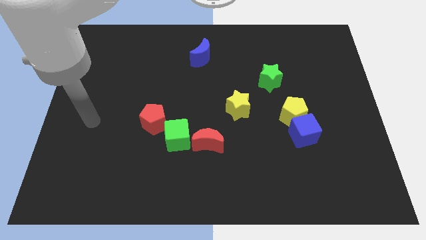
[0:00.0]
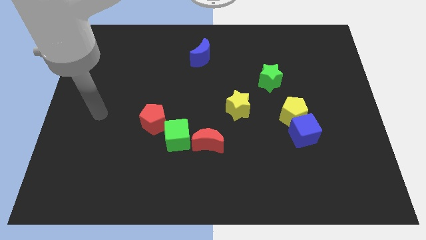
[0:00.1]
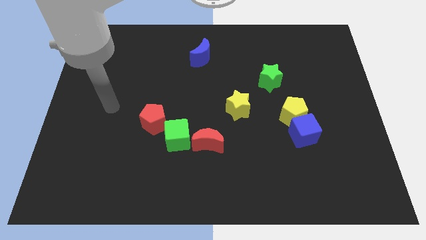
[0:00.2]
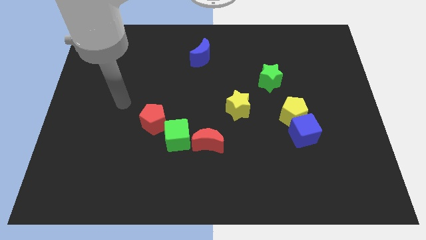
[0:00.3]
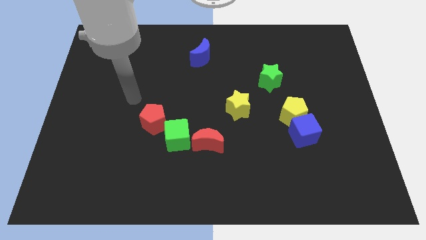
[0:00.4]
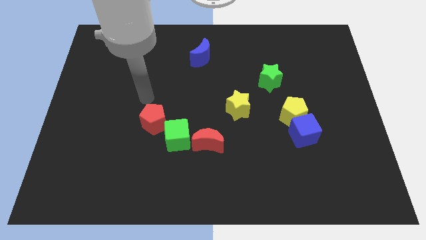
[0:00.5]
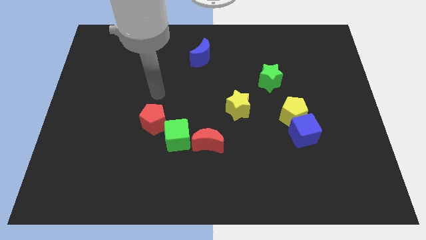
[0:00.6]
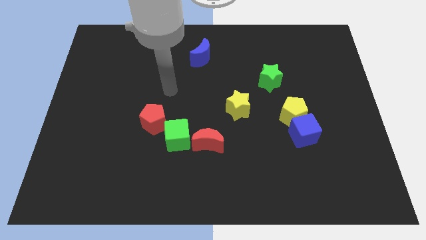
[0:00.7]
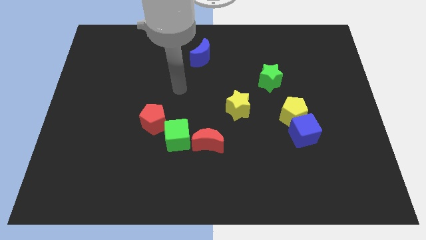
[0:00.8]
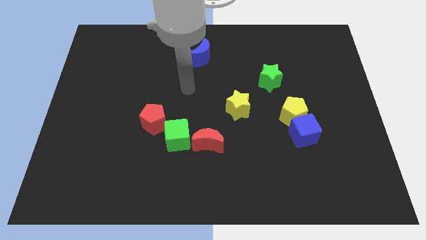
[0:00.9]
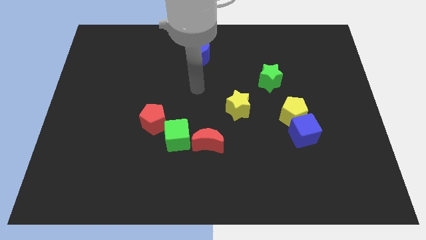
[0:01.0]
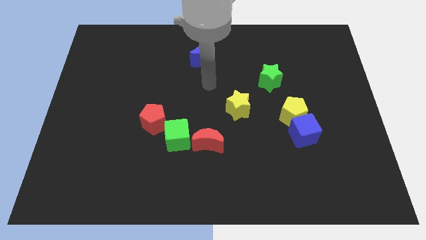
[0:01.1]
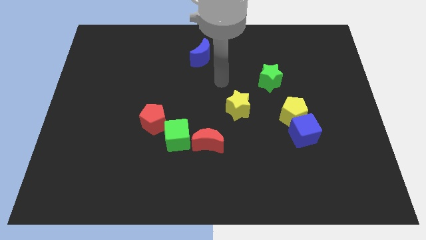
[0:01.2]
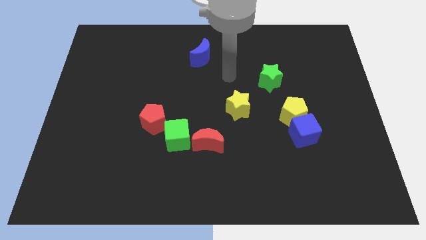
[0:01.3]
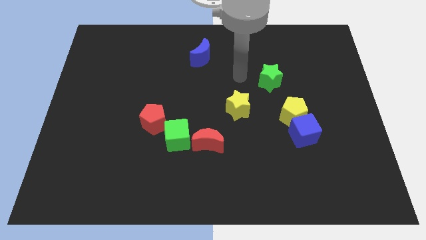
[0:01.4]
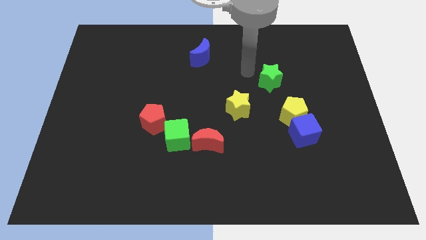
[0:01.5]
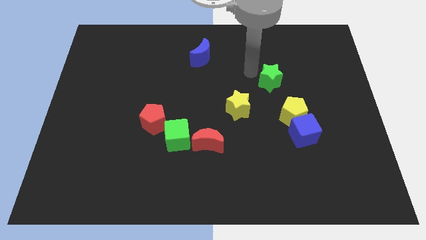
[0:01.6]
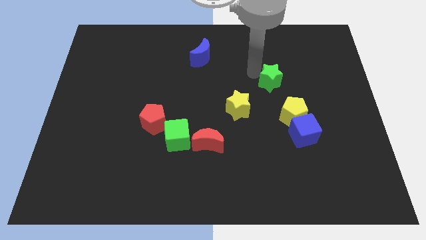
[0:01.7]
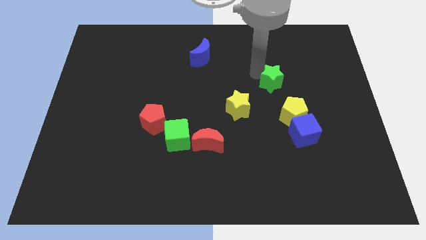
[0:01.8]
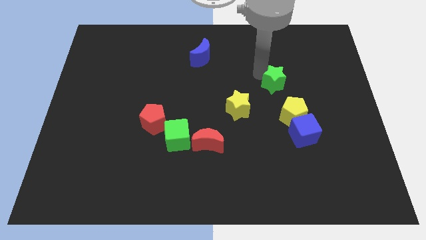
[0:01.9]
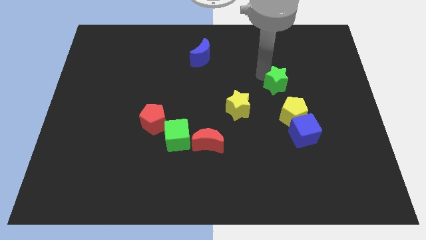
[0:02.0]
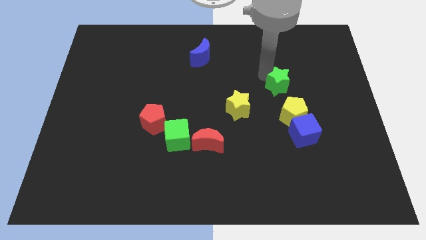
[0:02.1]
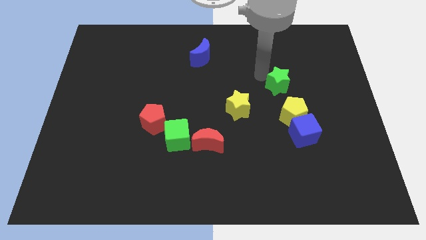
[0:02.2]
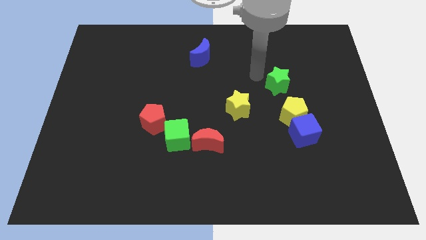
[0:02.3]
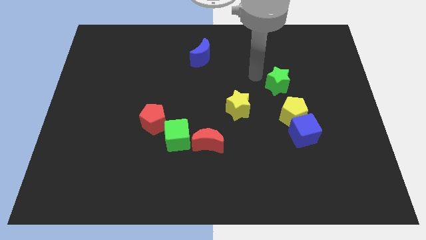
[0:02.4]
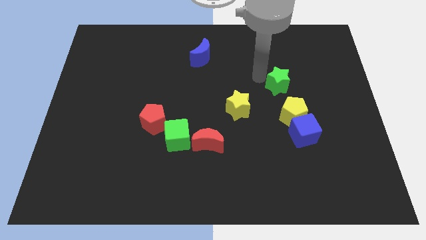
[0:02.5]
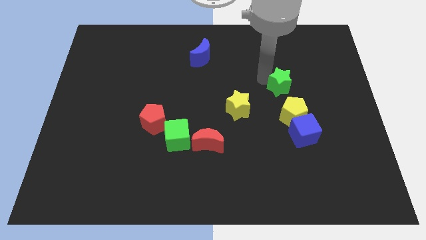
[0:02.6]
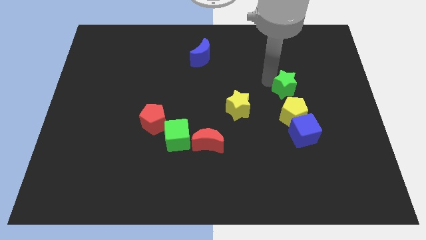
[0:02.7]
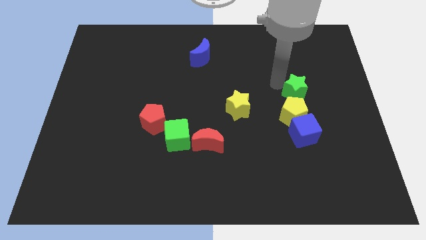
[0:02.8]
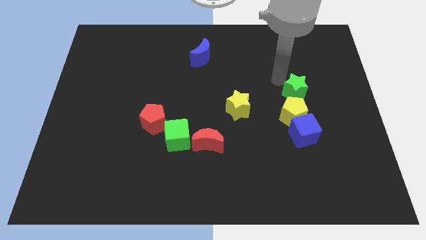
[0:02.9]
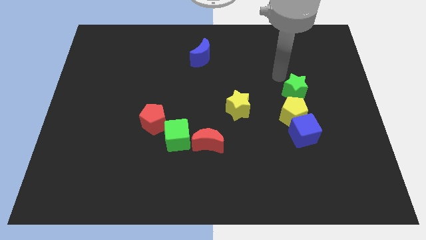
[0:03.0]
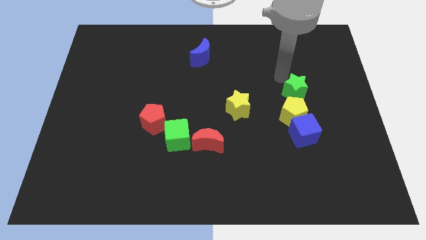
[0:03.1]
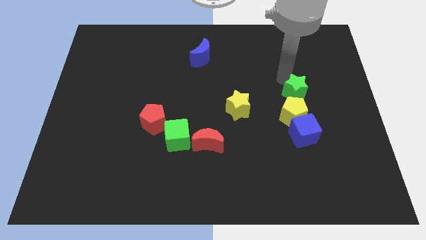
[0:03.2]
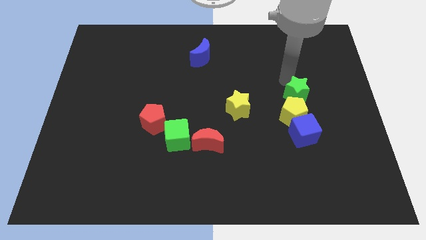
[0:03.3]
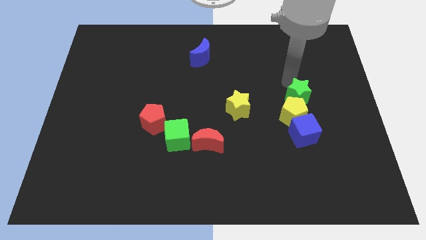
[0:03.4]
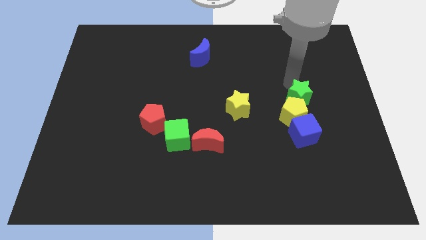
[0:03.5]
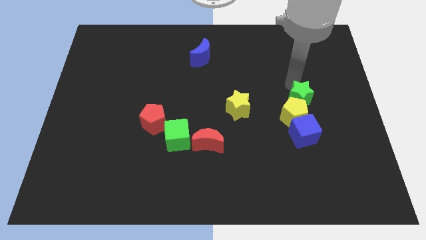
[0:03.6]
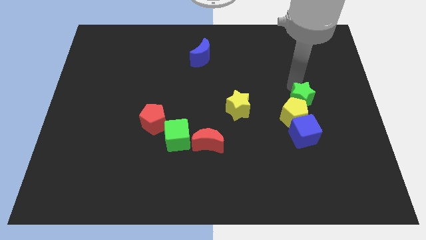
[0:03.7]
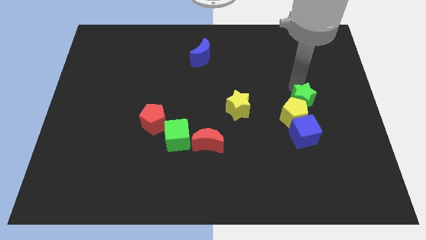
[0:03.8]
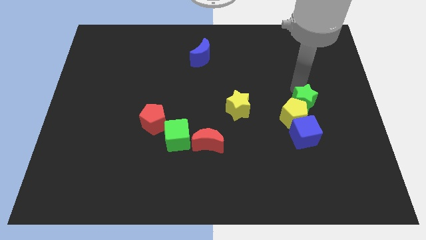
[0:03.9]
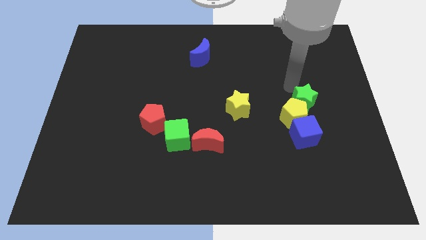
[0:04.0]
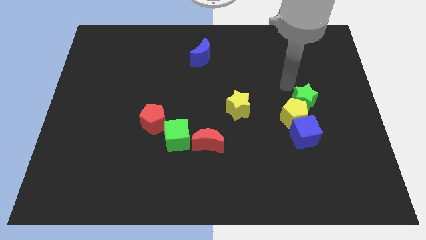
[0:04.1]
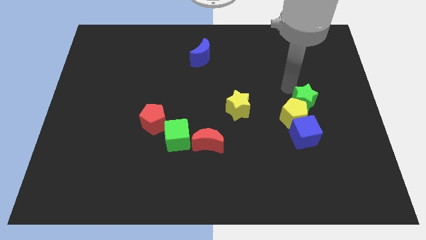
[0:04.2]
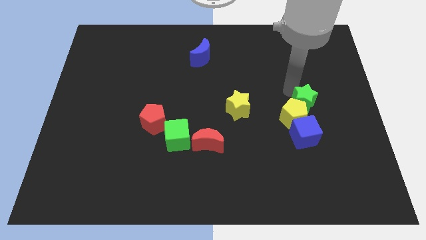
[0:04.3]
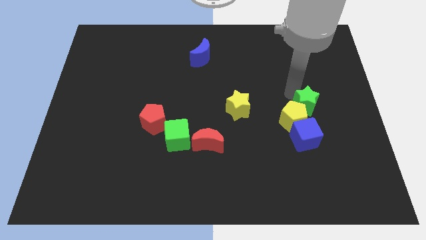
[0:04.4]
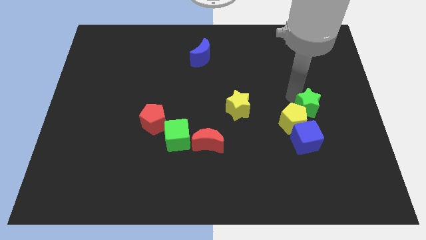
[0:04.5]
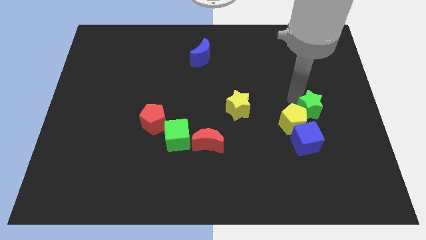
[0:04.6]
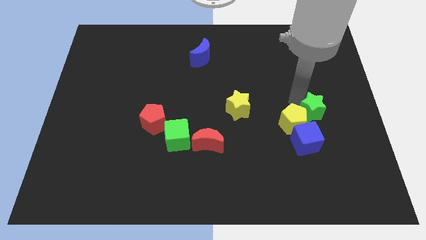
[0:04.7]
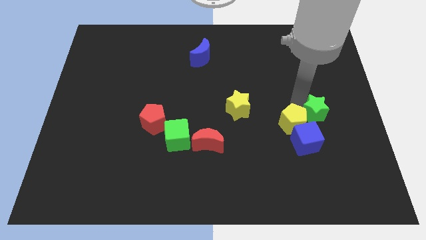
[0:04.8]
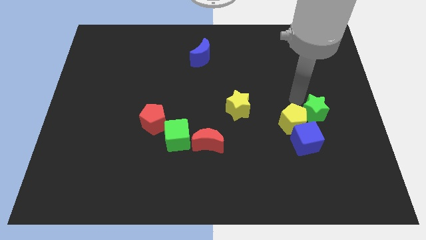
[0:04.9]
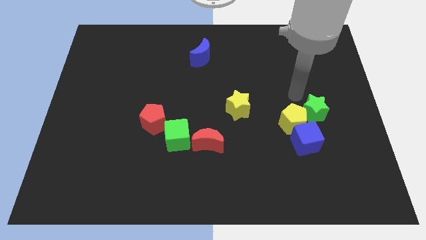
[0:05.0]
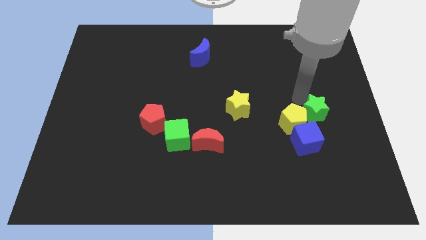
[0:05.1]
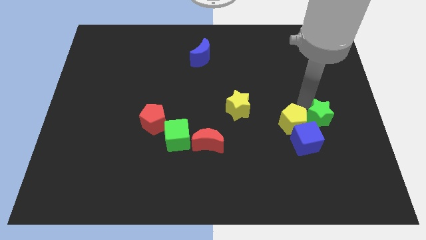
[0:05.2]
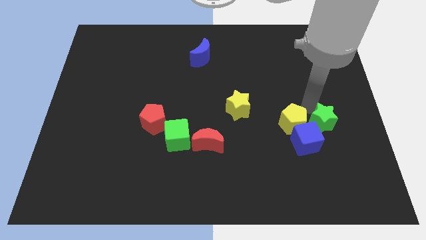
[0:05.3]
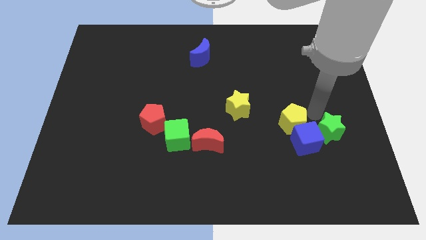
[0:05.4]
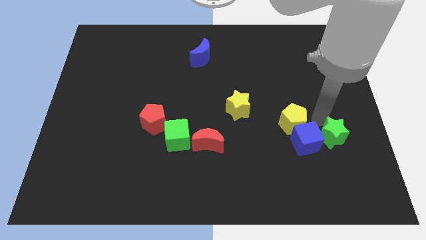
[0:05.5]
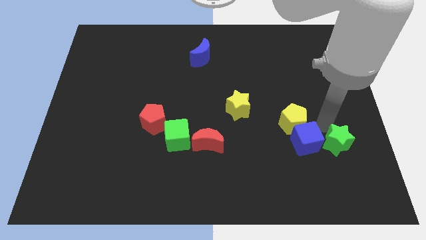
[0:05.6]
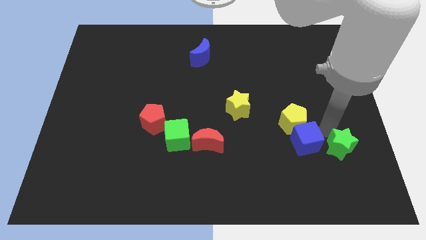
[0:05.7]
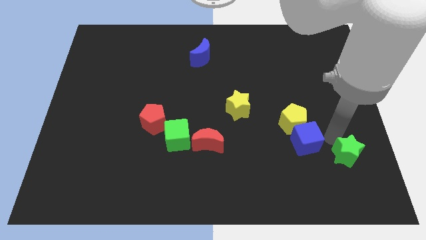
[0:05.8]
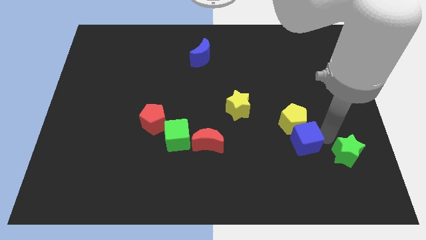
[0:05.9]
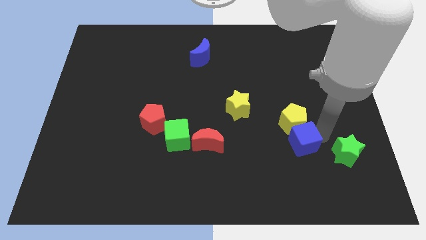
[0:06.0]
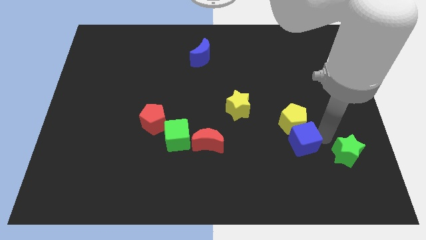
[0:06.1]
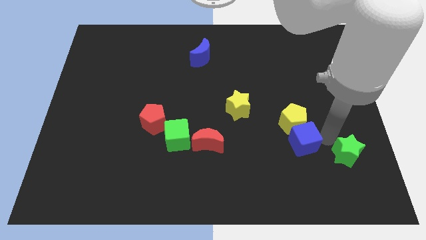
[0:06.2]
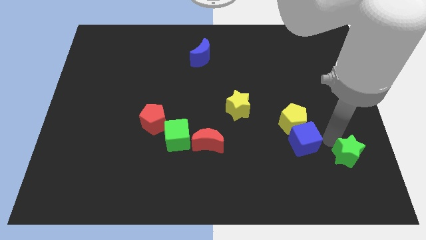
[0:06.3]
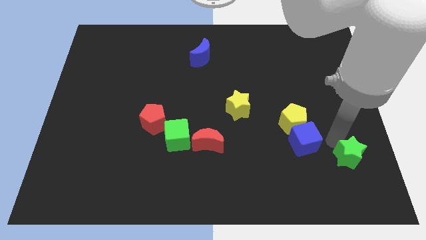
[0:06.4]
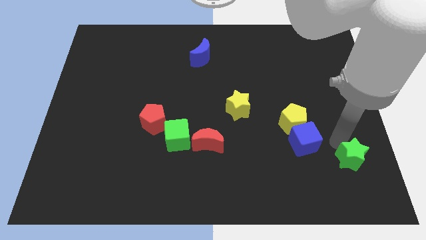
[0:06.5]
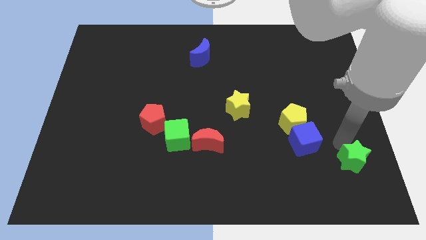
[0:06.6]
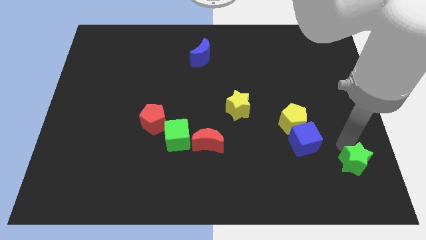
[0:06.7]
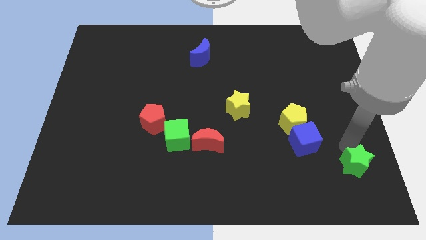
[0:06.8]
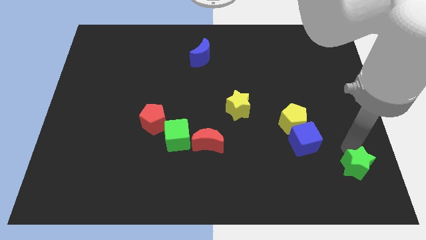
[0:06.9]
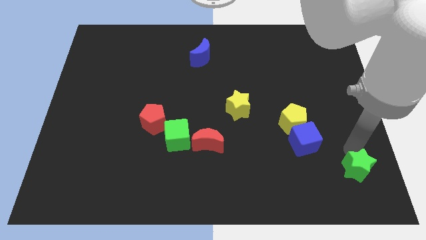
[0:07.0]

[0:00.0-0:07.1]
push the green star to the bottom right
